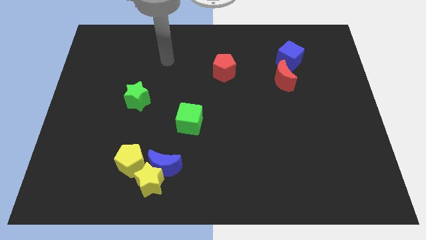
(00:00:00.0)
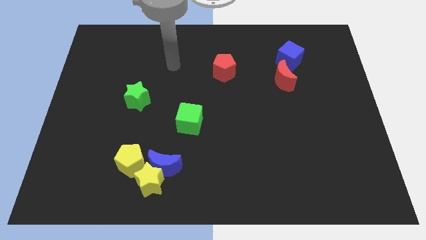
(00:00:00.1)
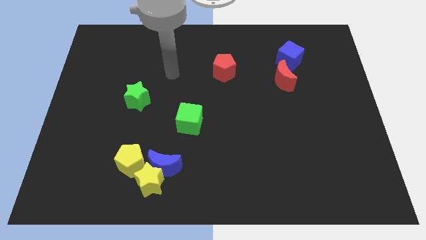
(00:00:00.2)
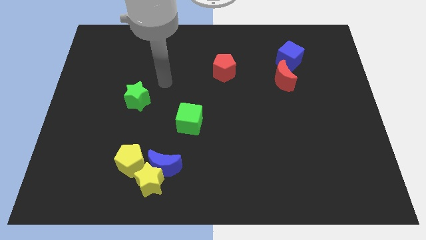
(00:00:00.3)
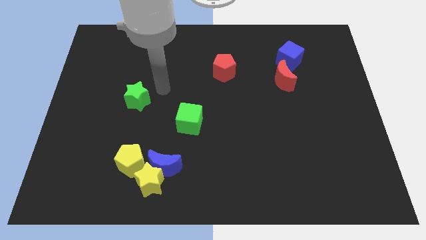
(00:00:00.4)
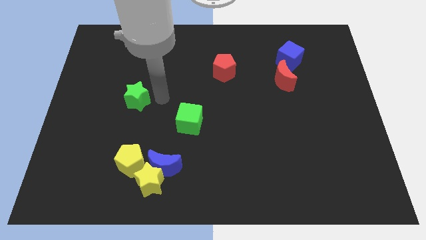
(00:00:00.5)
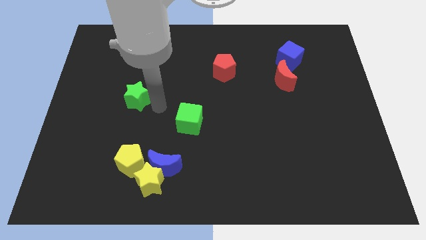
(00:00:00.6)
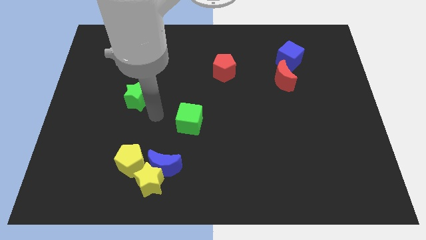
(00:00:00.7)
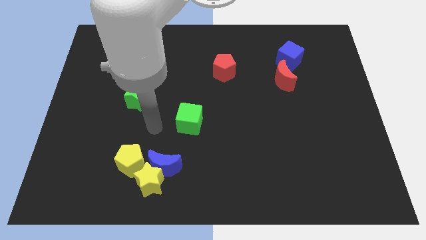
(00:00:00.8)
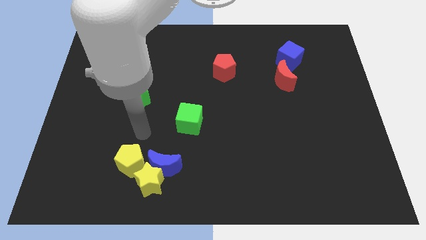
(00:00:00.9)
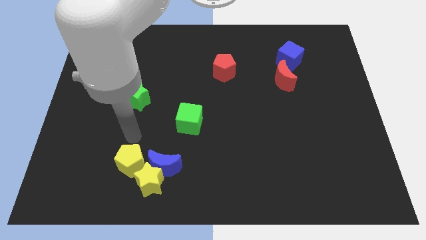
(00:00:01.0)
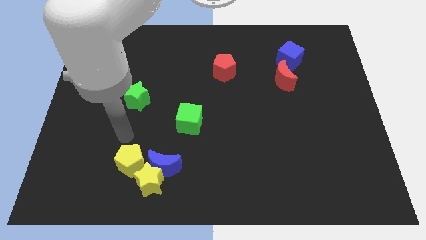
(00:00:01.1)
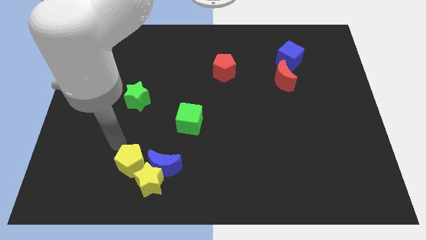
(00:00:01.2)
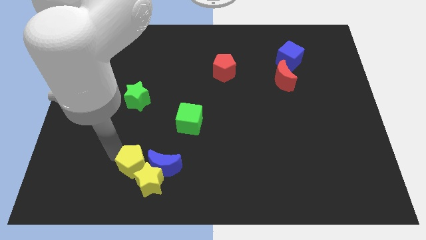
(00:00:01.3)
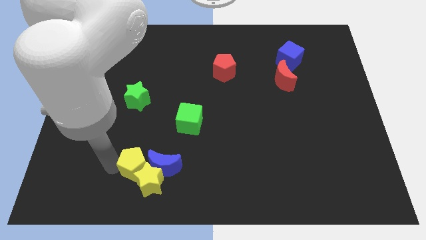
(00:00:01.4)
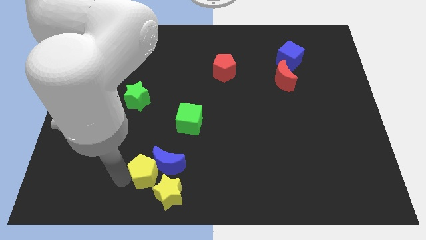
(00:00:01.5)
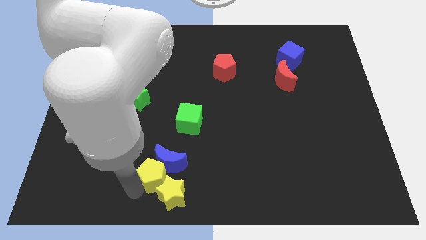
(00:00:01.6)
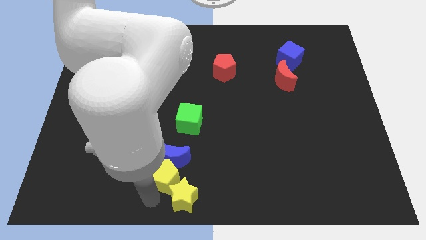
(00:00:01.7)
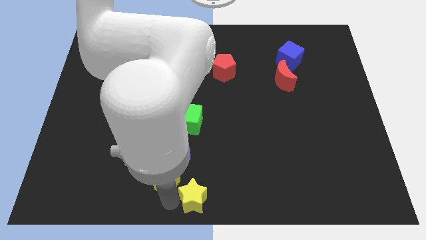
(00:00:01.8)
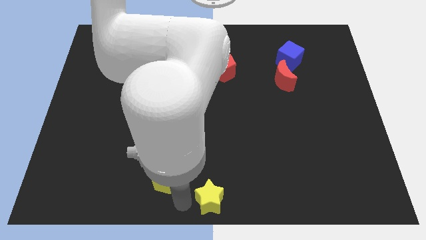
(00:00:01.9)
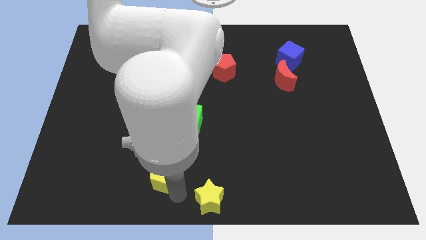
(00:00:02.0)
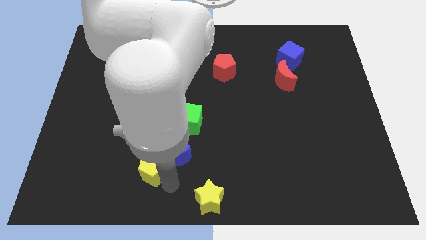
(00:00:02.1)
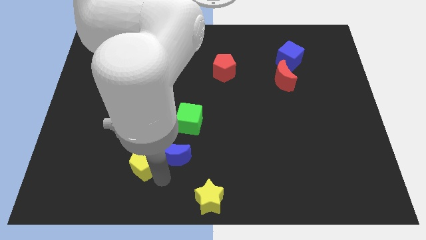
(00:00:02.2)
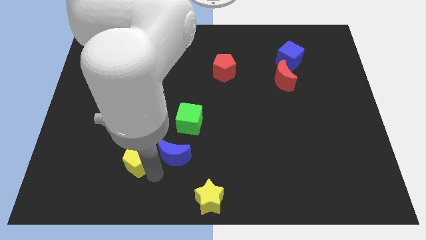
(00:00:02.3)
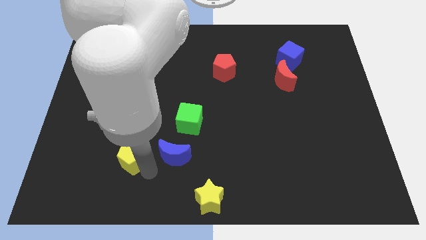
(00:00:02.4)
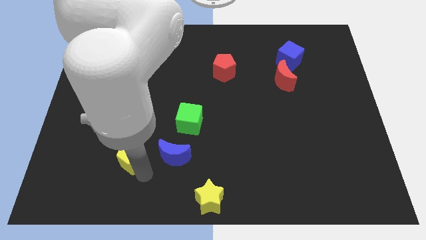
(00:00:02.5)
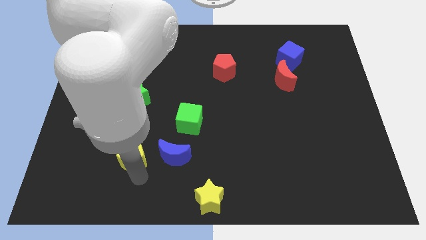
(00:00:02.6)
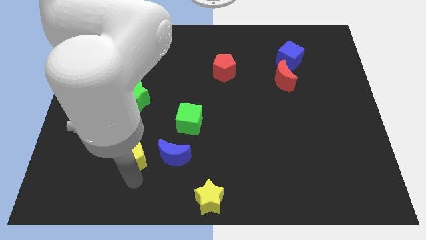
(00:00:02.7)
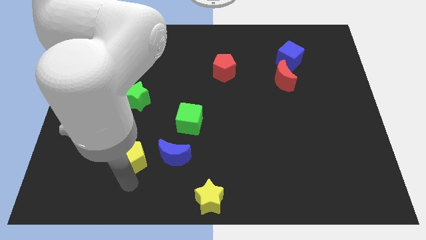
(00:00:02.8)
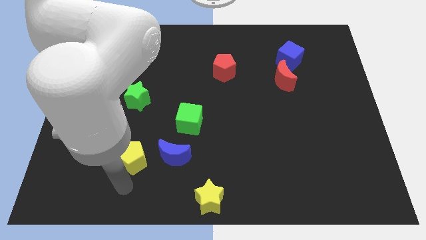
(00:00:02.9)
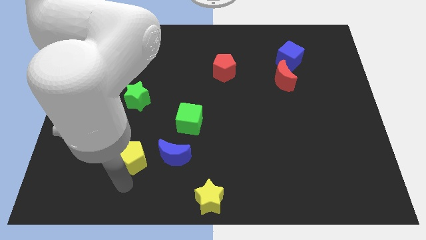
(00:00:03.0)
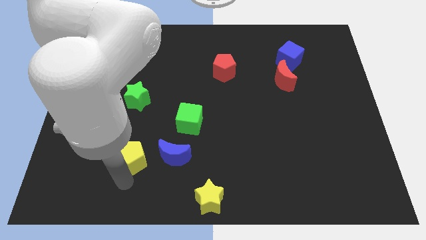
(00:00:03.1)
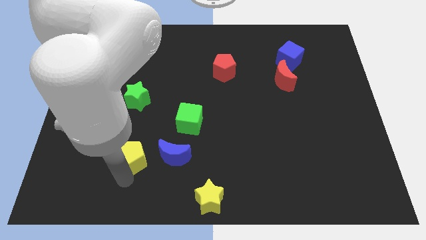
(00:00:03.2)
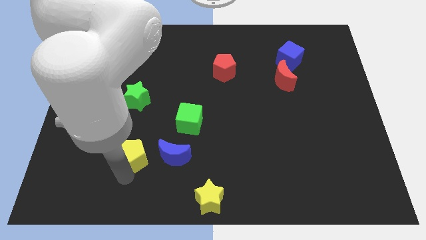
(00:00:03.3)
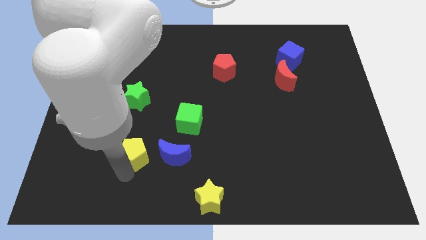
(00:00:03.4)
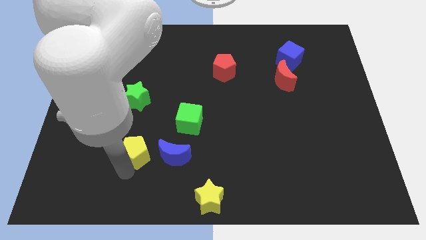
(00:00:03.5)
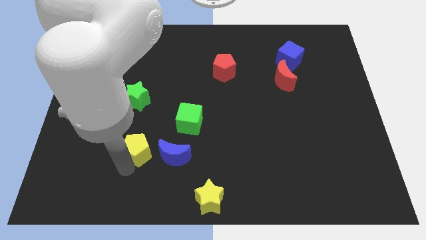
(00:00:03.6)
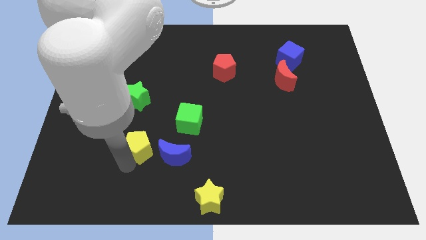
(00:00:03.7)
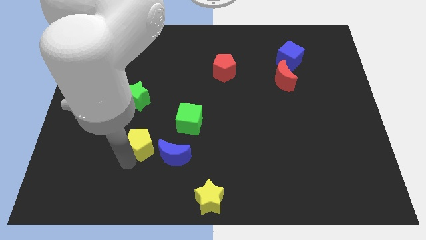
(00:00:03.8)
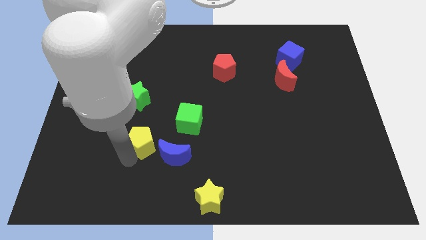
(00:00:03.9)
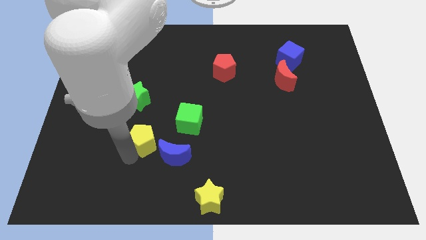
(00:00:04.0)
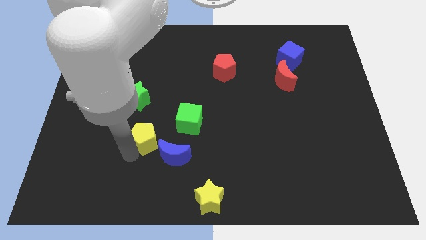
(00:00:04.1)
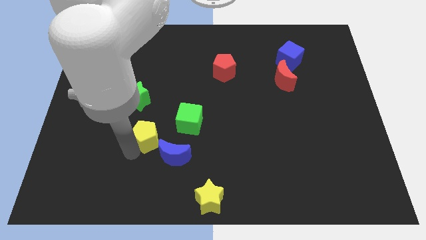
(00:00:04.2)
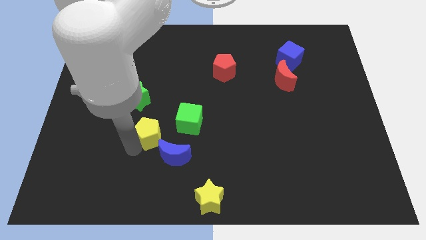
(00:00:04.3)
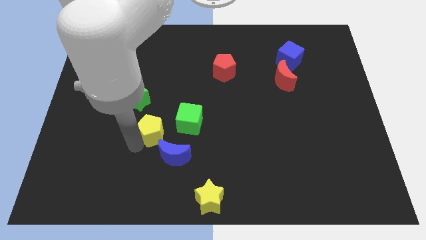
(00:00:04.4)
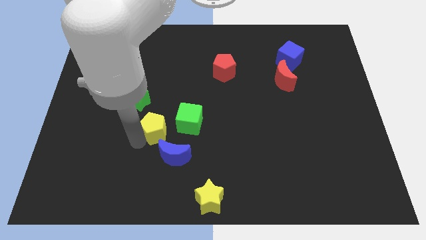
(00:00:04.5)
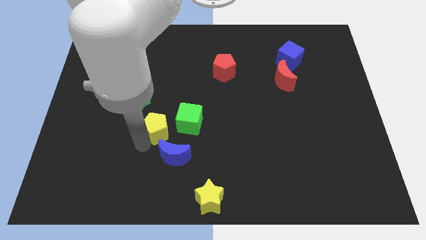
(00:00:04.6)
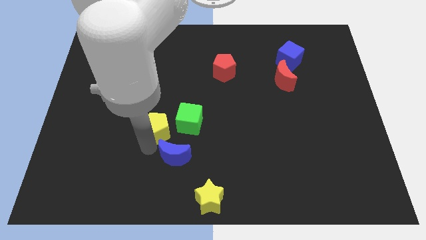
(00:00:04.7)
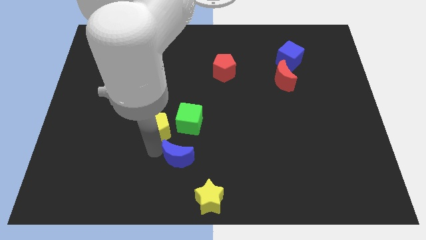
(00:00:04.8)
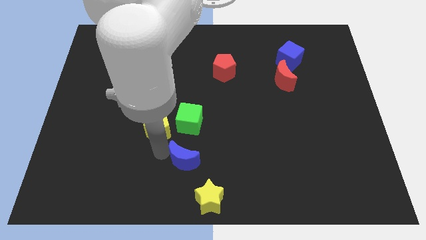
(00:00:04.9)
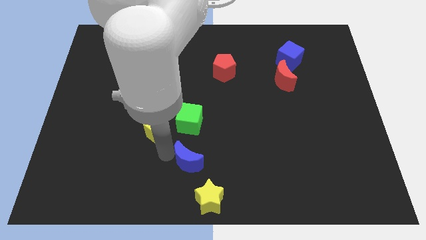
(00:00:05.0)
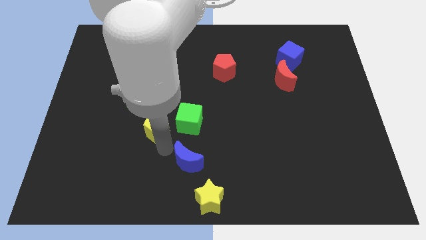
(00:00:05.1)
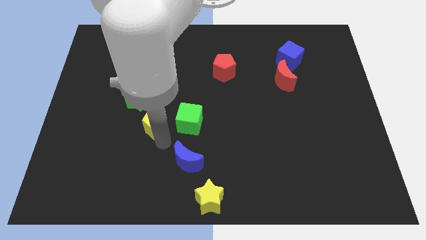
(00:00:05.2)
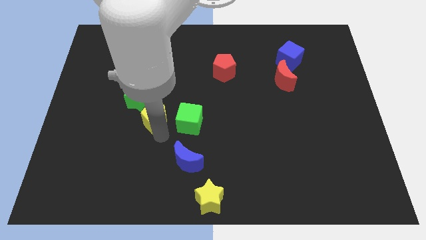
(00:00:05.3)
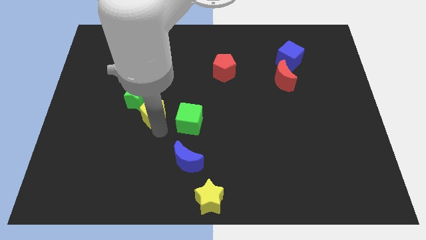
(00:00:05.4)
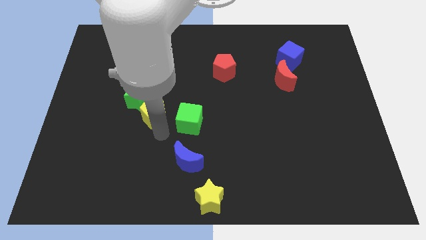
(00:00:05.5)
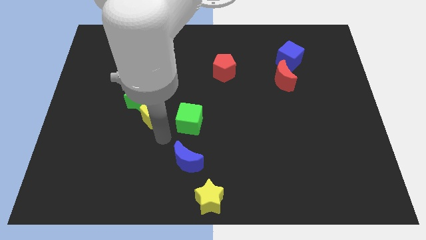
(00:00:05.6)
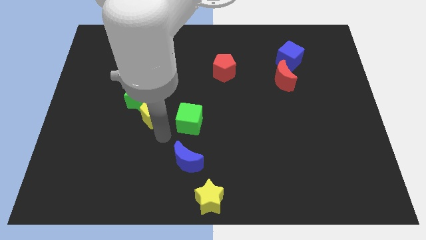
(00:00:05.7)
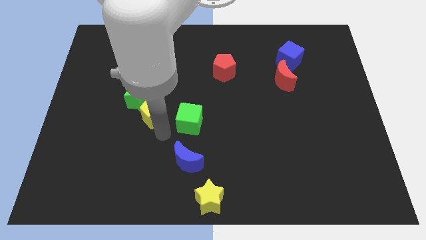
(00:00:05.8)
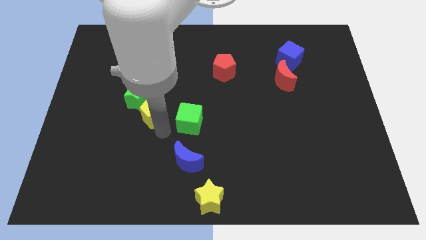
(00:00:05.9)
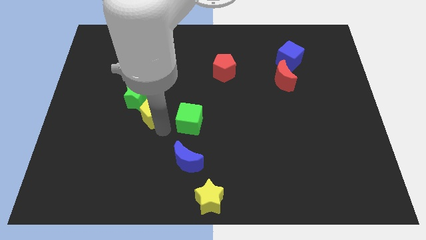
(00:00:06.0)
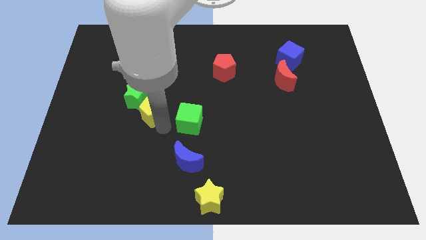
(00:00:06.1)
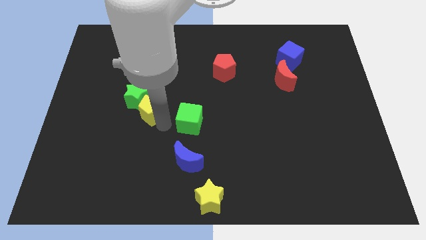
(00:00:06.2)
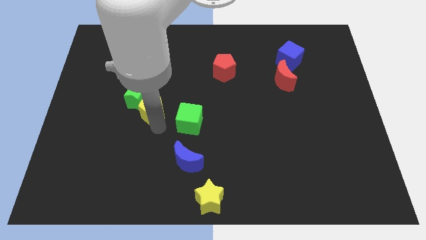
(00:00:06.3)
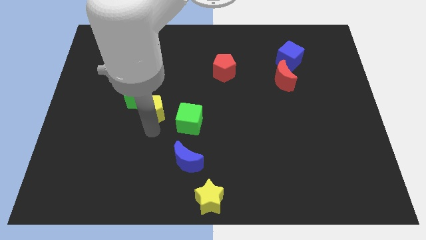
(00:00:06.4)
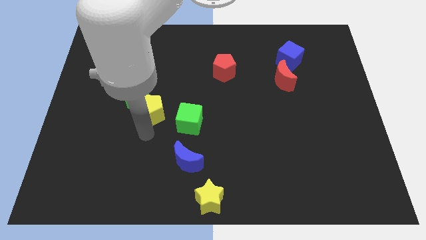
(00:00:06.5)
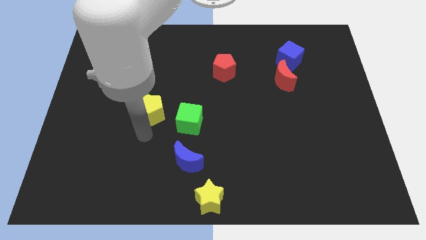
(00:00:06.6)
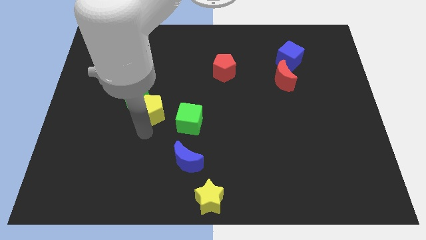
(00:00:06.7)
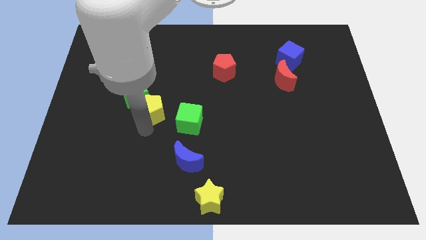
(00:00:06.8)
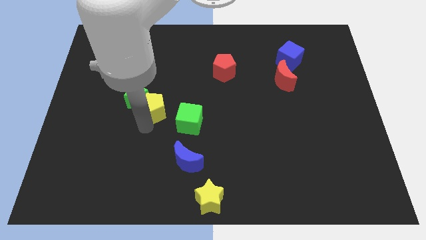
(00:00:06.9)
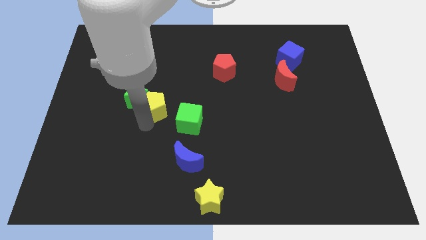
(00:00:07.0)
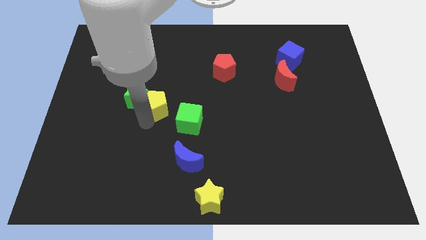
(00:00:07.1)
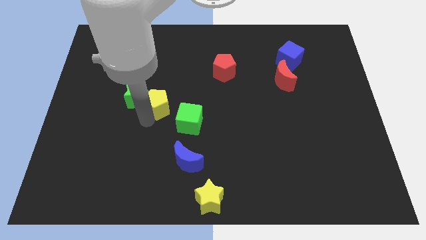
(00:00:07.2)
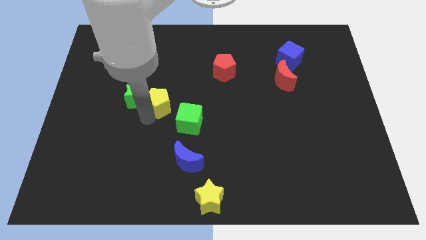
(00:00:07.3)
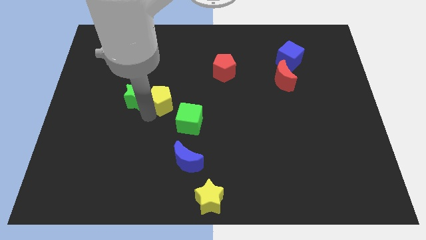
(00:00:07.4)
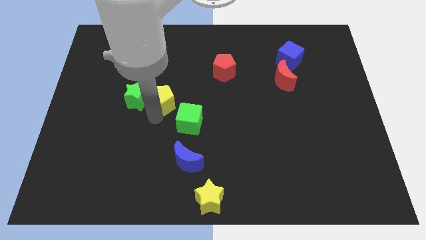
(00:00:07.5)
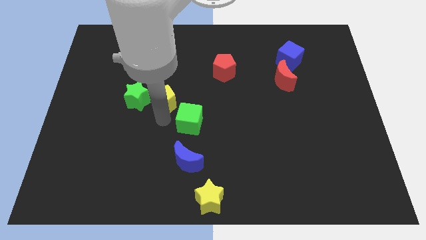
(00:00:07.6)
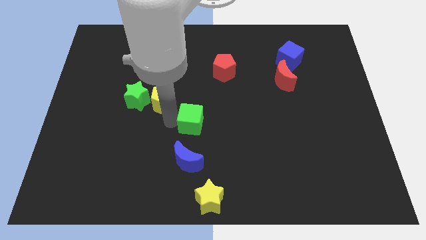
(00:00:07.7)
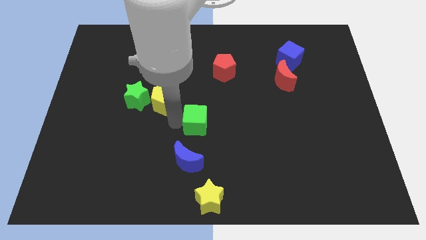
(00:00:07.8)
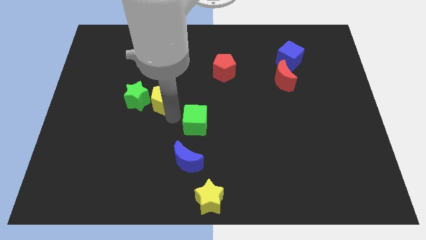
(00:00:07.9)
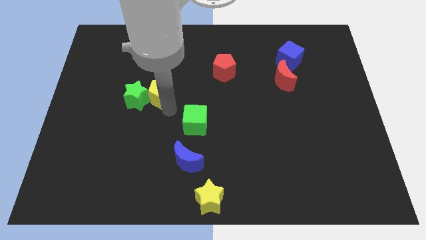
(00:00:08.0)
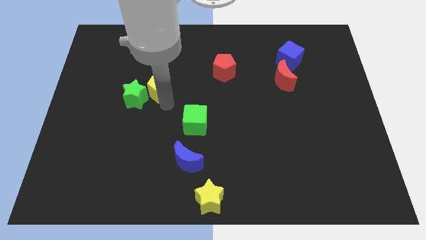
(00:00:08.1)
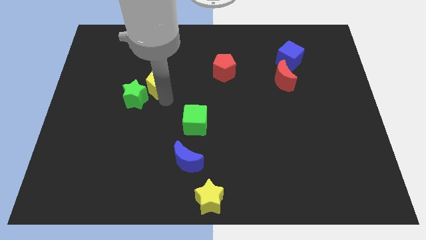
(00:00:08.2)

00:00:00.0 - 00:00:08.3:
move the yellow pentagon upwards
